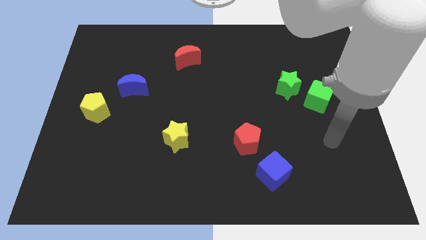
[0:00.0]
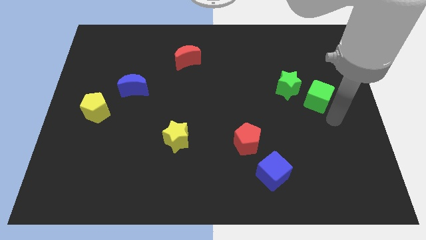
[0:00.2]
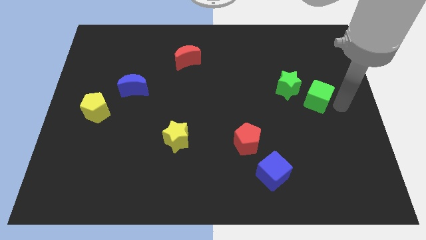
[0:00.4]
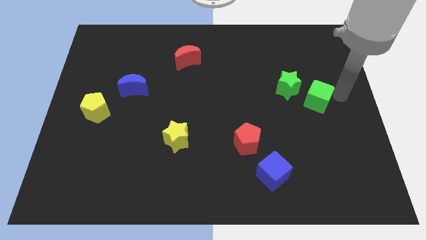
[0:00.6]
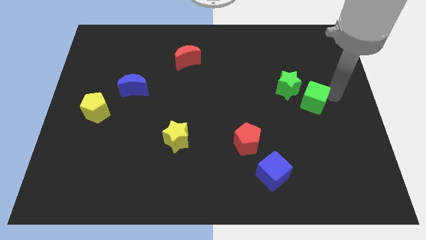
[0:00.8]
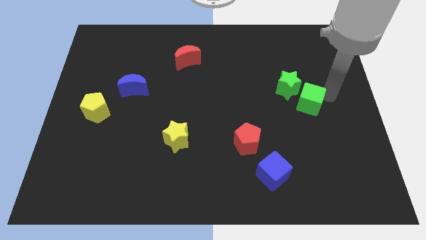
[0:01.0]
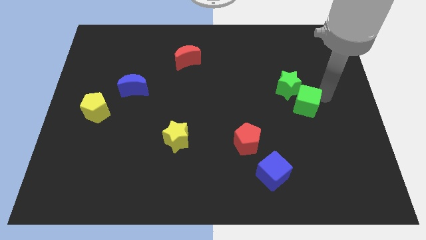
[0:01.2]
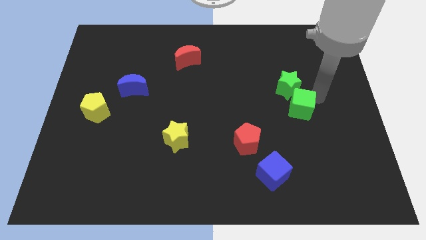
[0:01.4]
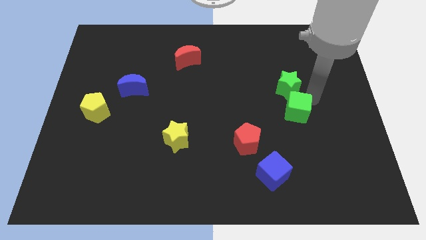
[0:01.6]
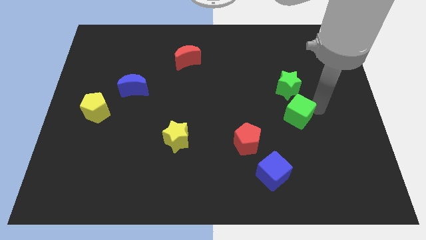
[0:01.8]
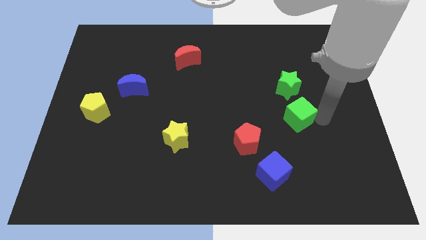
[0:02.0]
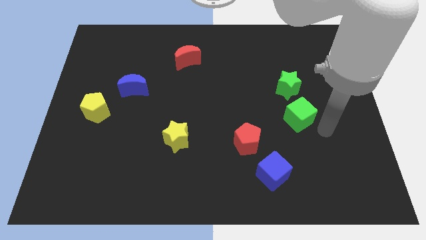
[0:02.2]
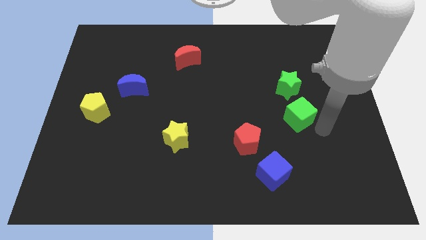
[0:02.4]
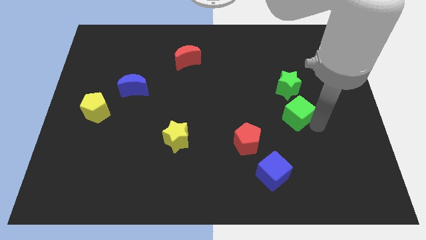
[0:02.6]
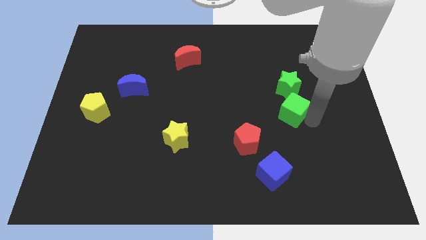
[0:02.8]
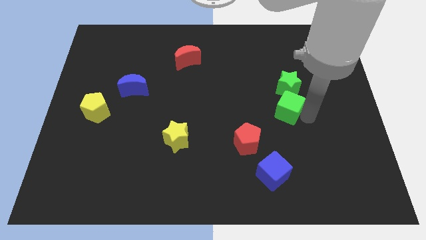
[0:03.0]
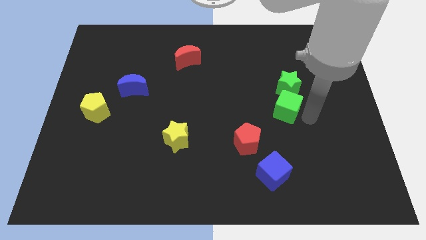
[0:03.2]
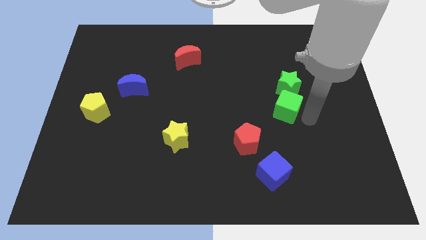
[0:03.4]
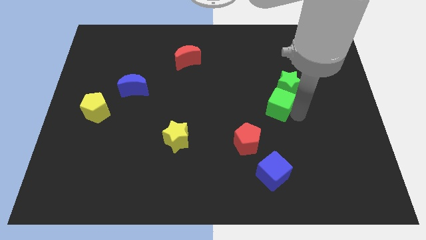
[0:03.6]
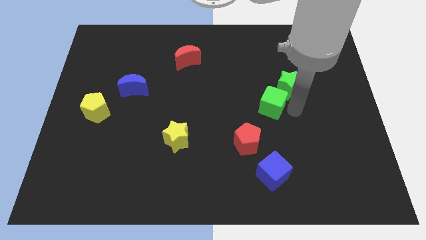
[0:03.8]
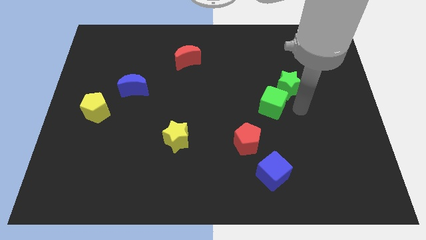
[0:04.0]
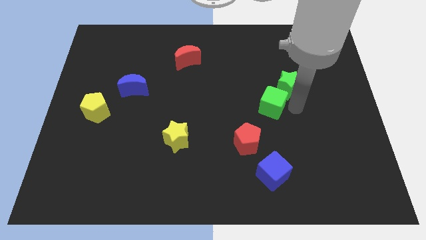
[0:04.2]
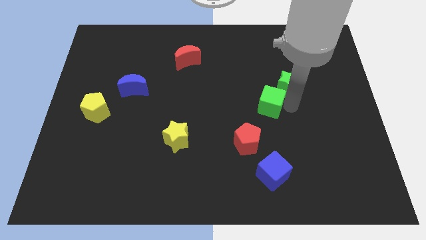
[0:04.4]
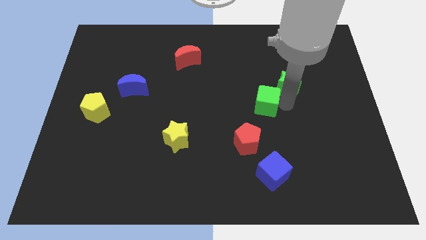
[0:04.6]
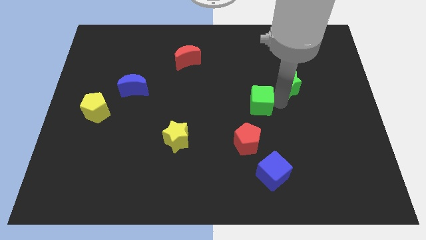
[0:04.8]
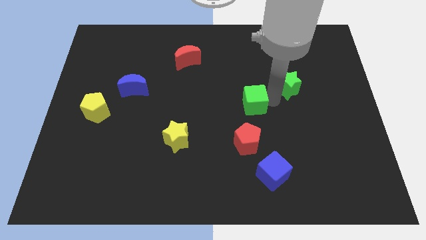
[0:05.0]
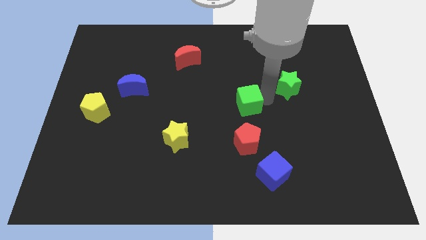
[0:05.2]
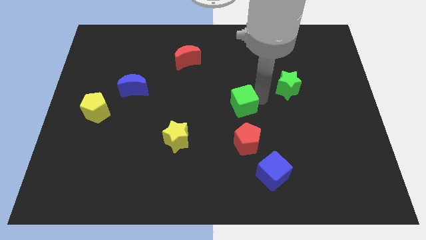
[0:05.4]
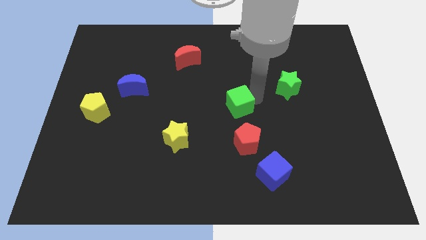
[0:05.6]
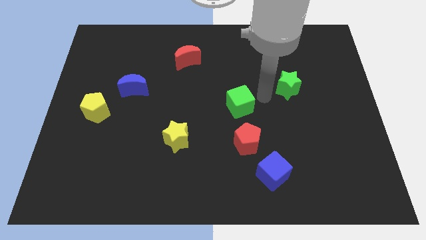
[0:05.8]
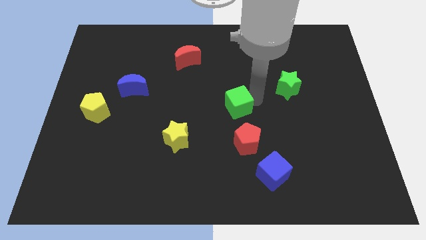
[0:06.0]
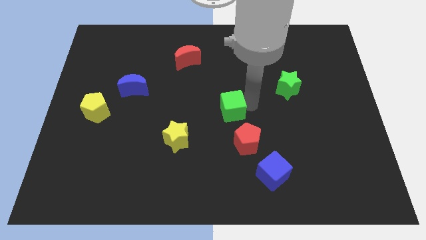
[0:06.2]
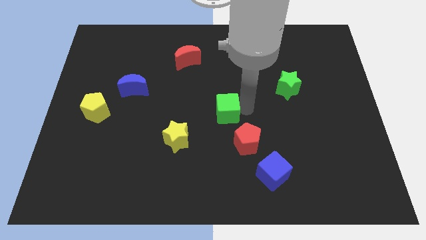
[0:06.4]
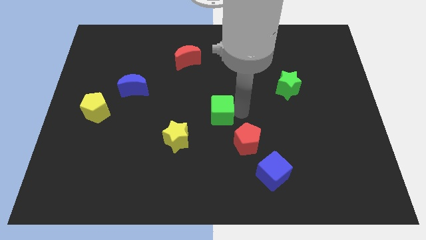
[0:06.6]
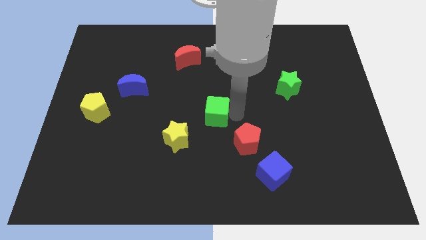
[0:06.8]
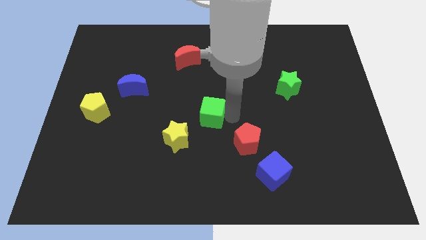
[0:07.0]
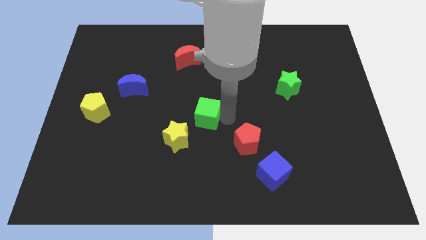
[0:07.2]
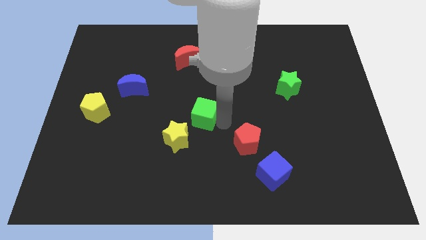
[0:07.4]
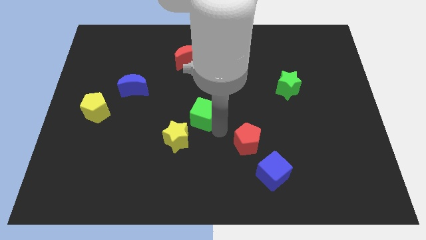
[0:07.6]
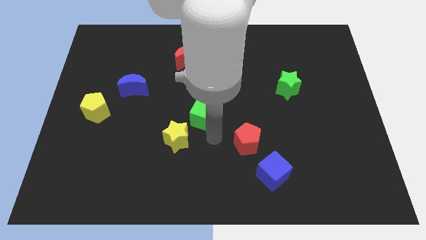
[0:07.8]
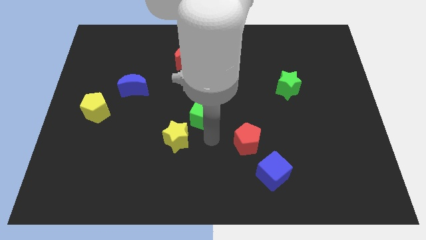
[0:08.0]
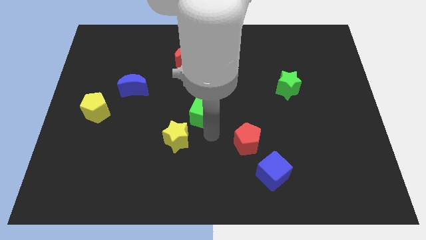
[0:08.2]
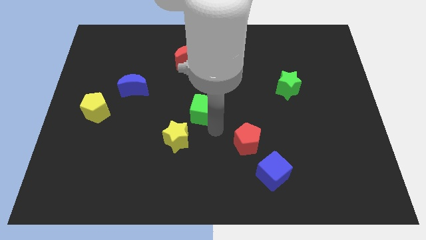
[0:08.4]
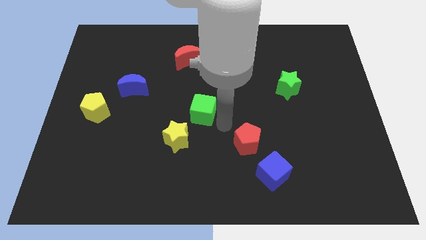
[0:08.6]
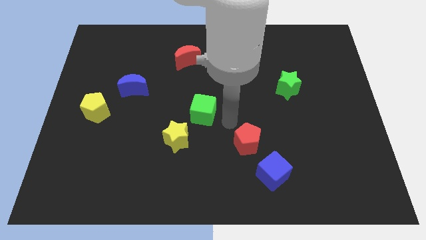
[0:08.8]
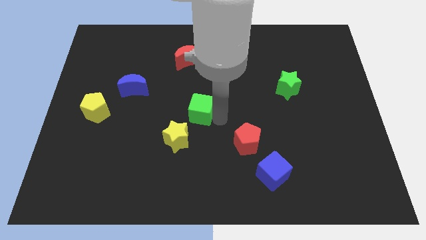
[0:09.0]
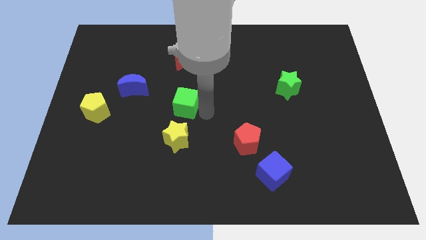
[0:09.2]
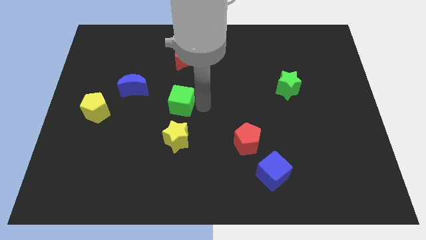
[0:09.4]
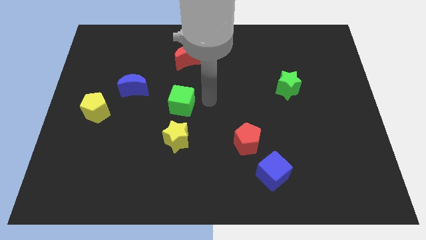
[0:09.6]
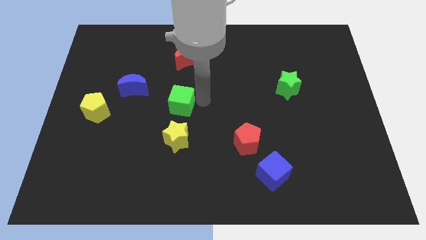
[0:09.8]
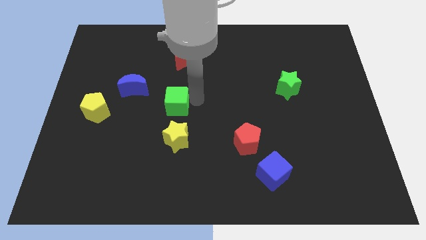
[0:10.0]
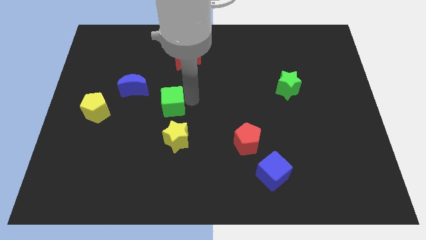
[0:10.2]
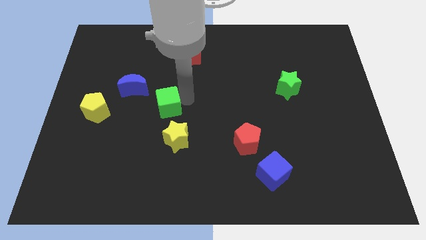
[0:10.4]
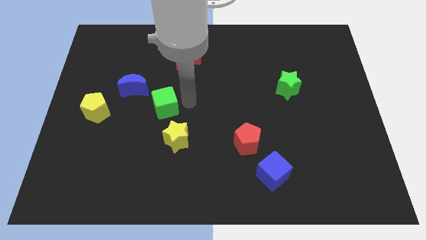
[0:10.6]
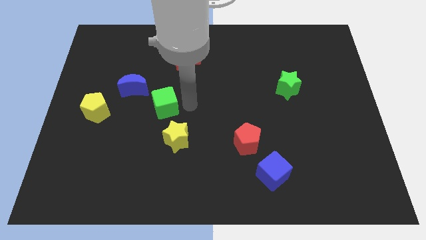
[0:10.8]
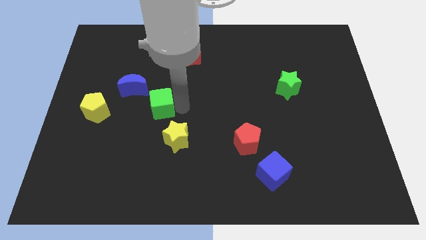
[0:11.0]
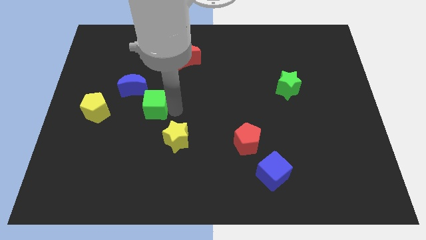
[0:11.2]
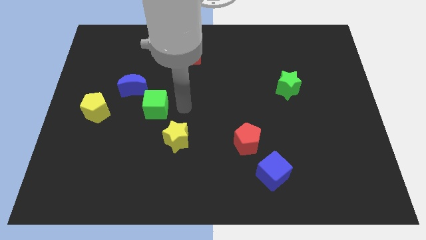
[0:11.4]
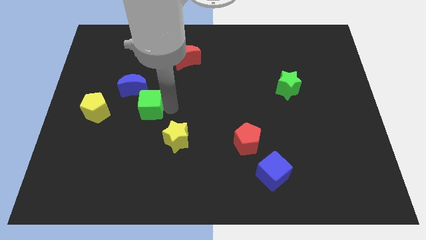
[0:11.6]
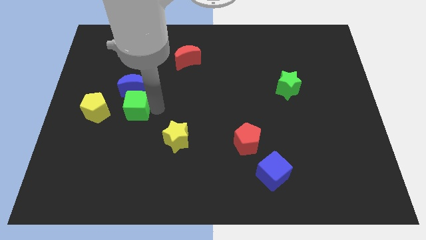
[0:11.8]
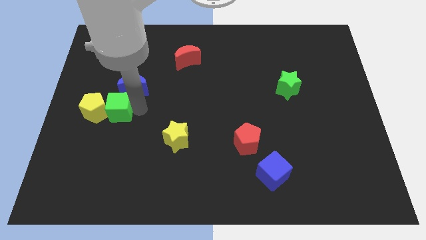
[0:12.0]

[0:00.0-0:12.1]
push the green cube close to the yellow pentagon
